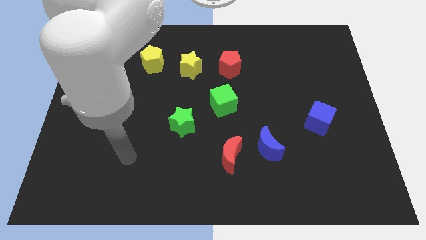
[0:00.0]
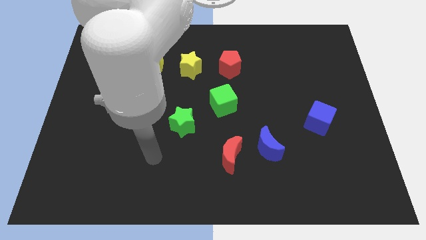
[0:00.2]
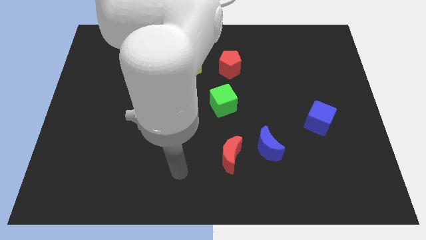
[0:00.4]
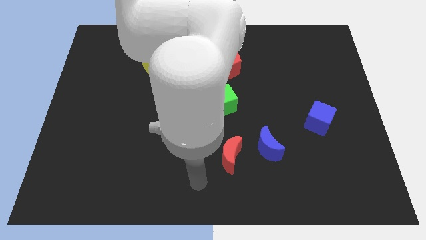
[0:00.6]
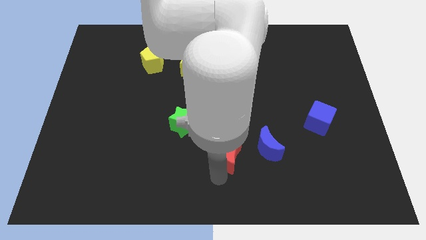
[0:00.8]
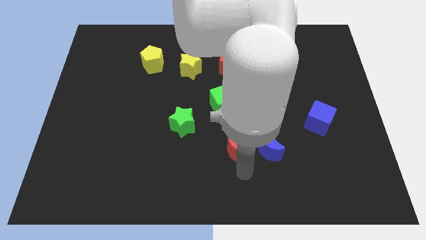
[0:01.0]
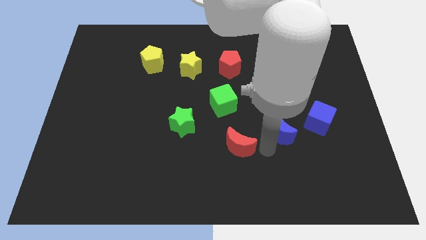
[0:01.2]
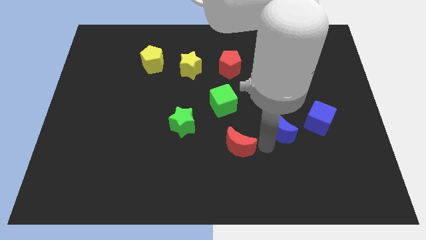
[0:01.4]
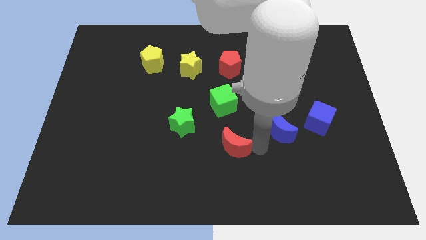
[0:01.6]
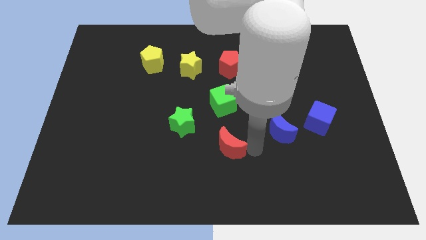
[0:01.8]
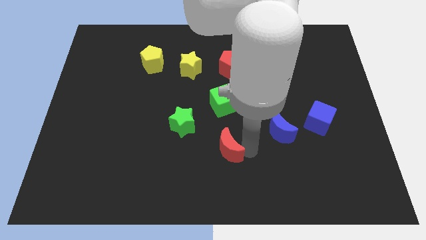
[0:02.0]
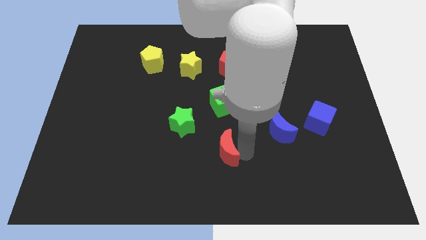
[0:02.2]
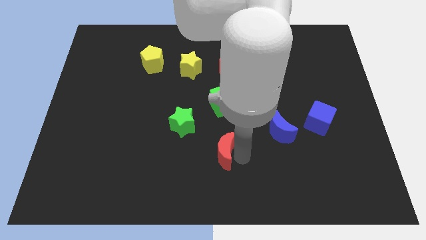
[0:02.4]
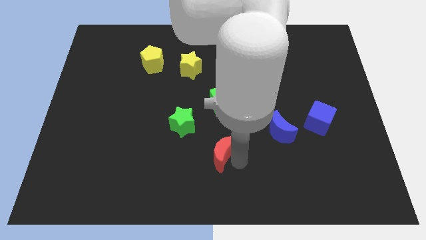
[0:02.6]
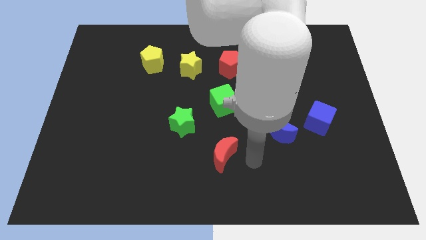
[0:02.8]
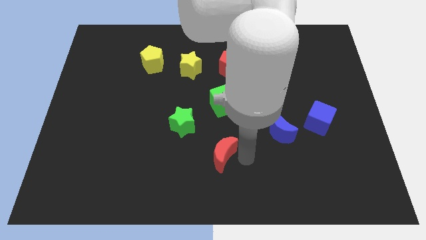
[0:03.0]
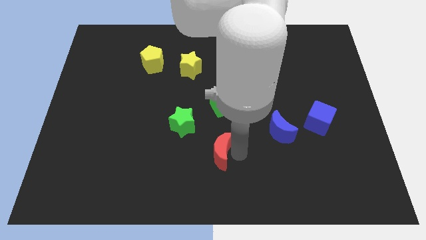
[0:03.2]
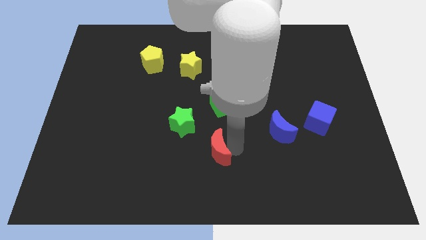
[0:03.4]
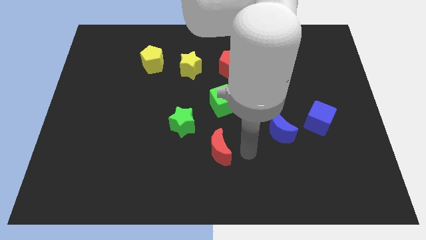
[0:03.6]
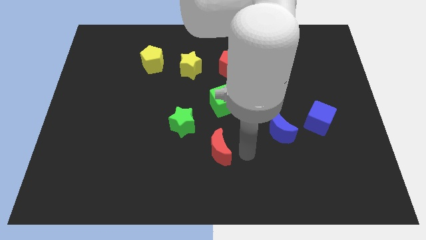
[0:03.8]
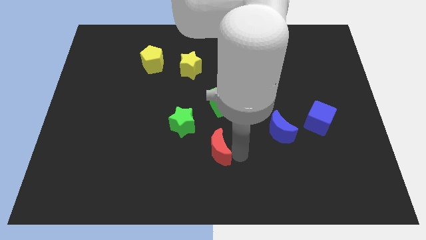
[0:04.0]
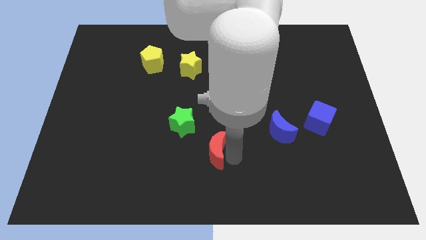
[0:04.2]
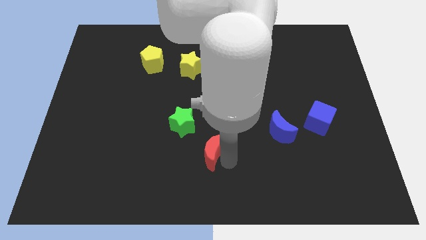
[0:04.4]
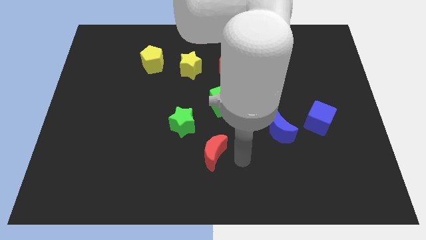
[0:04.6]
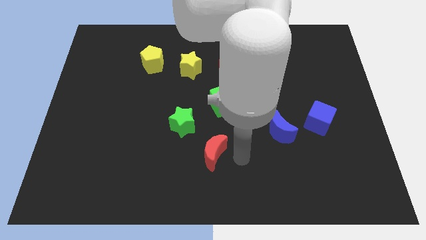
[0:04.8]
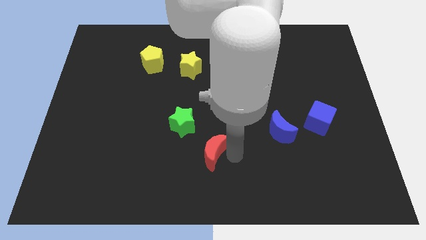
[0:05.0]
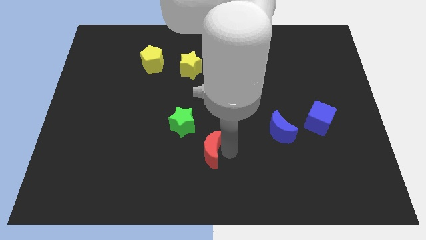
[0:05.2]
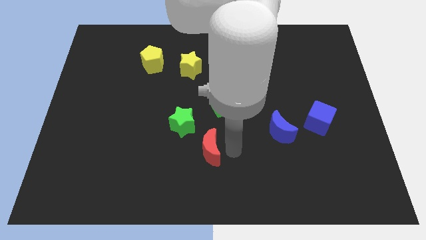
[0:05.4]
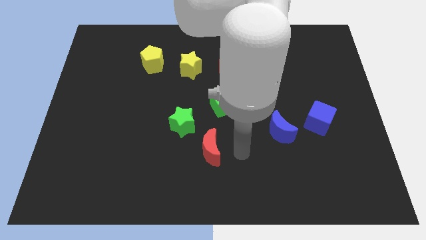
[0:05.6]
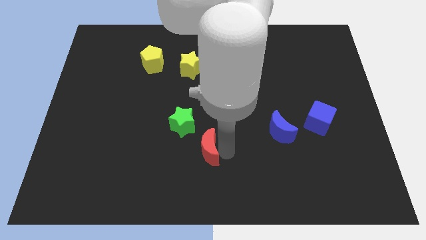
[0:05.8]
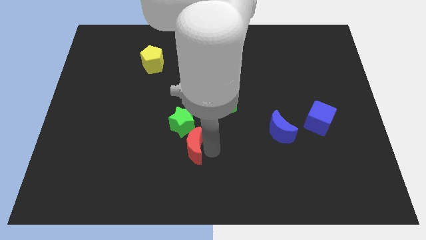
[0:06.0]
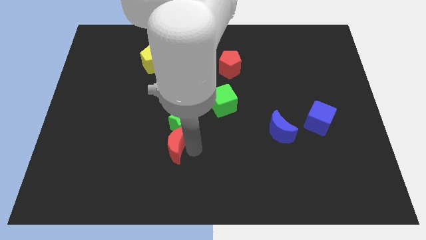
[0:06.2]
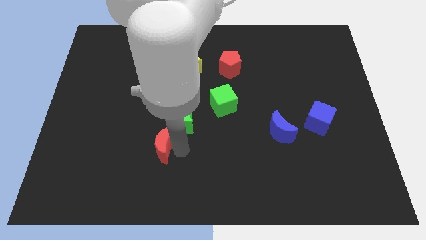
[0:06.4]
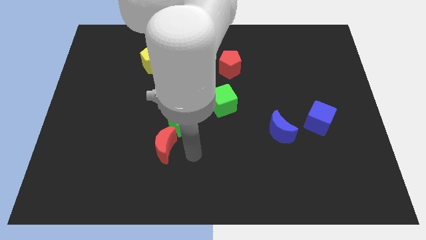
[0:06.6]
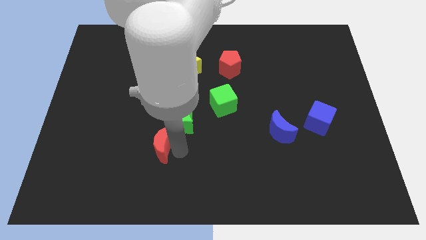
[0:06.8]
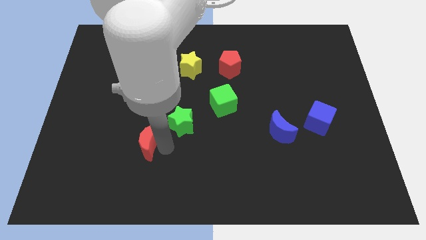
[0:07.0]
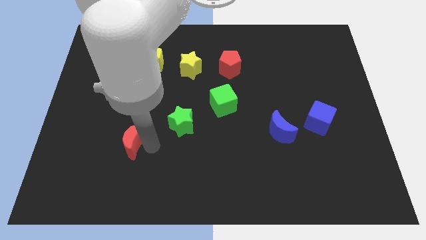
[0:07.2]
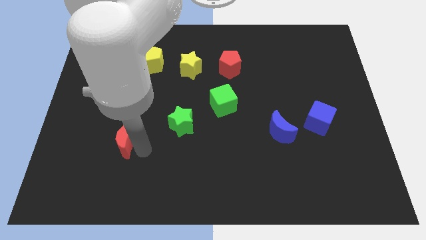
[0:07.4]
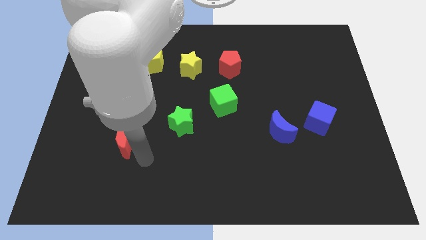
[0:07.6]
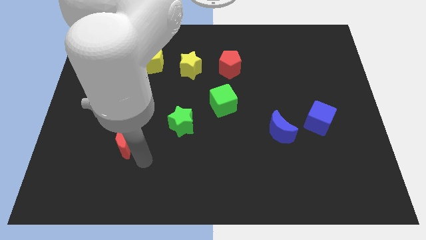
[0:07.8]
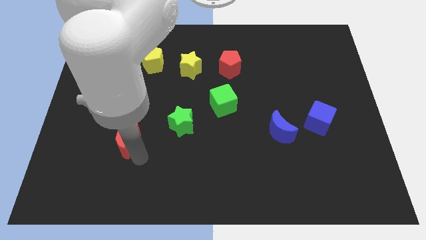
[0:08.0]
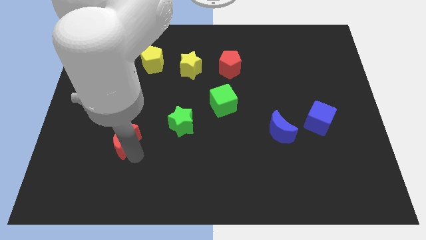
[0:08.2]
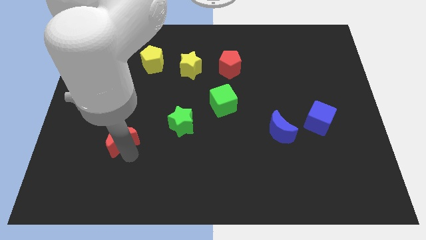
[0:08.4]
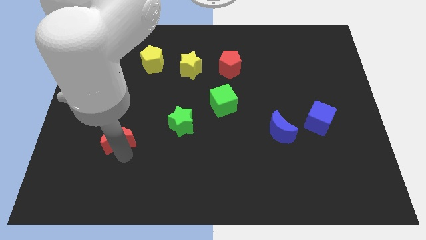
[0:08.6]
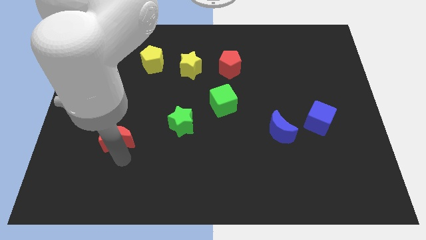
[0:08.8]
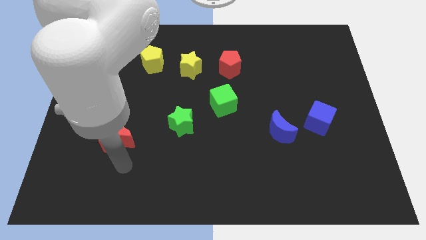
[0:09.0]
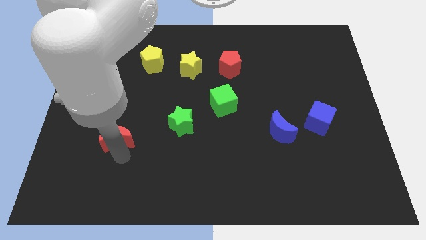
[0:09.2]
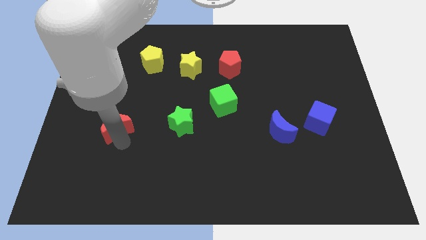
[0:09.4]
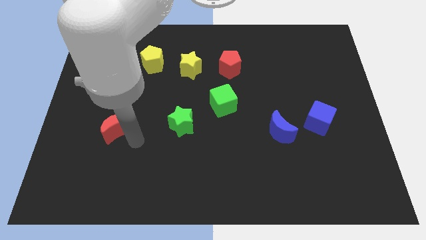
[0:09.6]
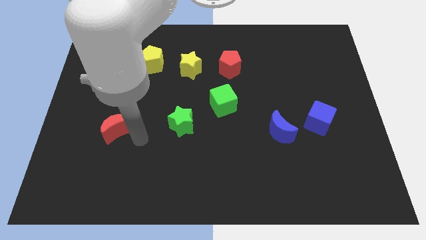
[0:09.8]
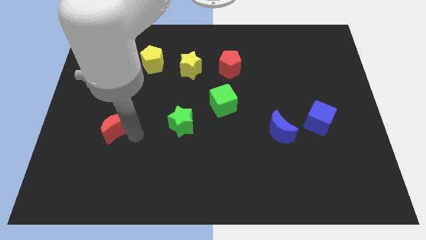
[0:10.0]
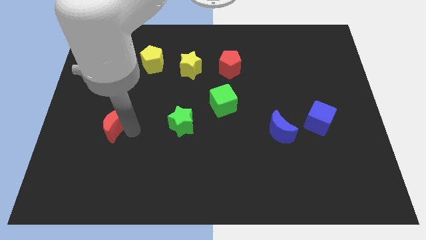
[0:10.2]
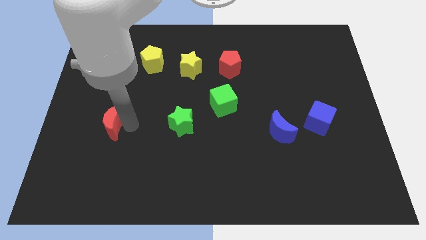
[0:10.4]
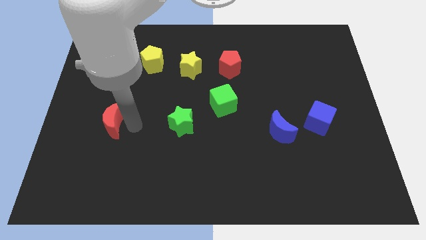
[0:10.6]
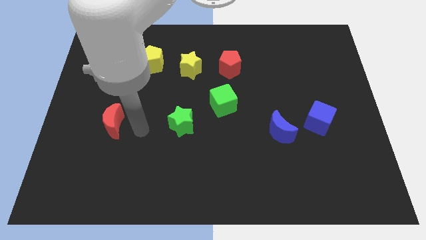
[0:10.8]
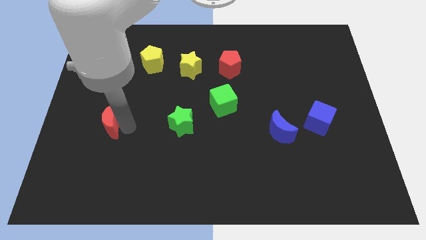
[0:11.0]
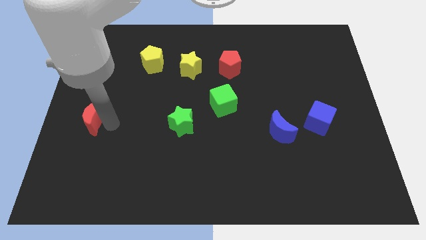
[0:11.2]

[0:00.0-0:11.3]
put the red moon to the left side of the board

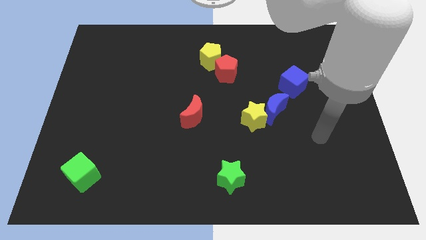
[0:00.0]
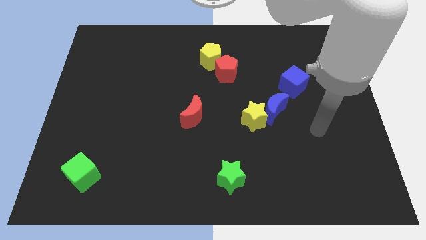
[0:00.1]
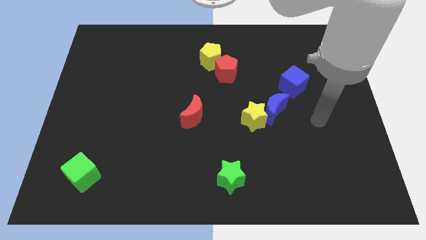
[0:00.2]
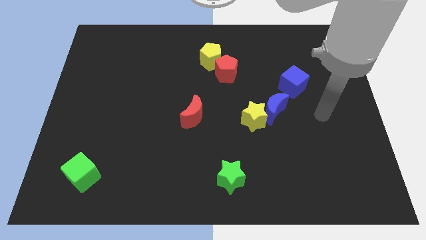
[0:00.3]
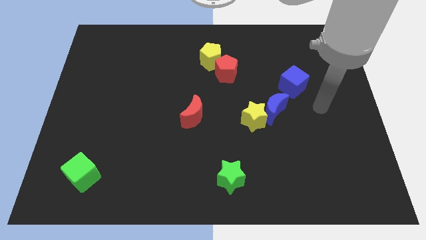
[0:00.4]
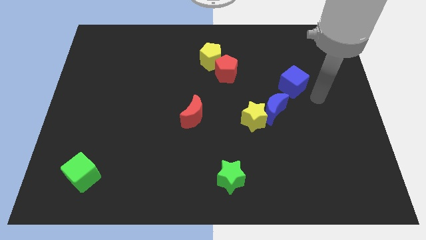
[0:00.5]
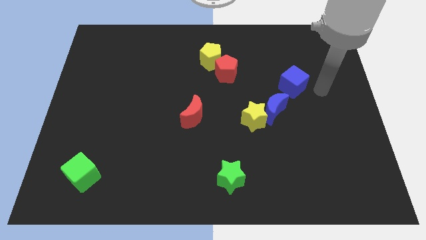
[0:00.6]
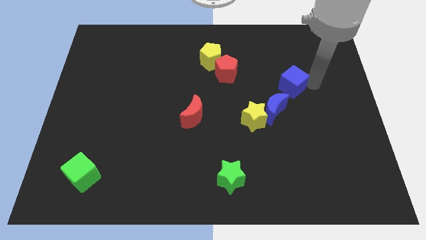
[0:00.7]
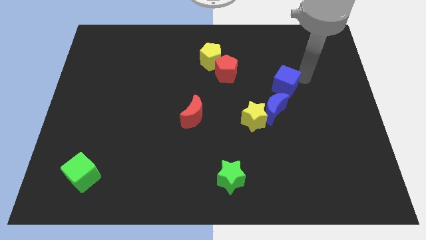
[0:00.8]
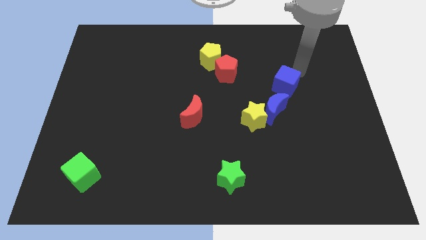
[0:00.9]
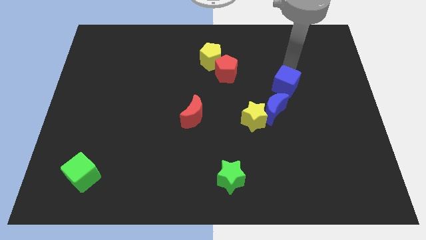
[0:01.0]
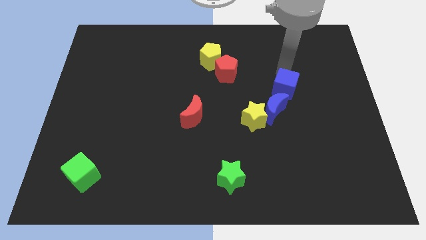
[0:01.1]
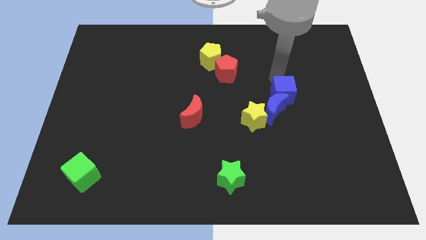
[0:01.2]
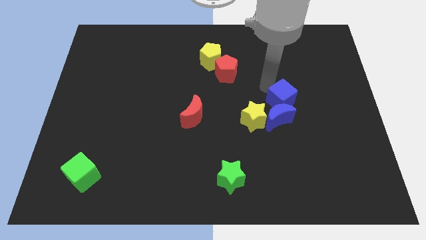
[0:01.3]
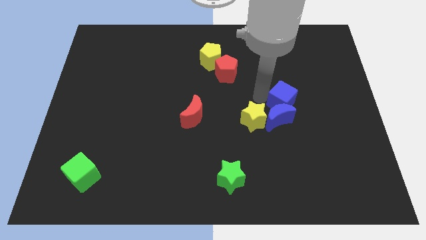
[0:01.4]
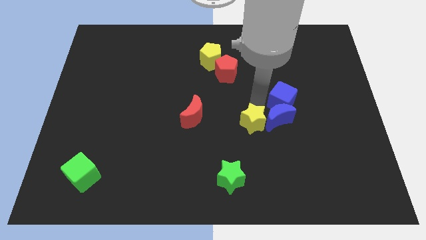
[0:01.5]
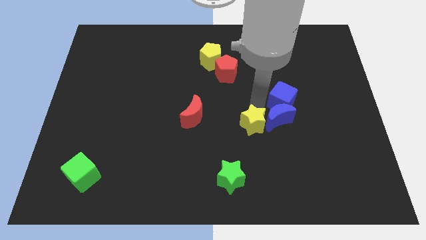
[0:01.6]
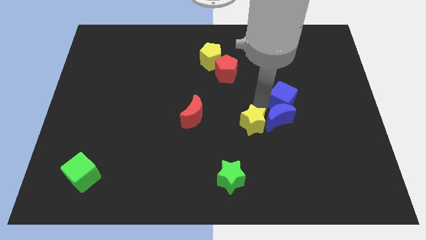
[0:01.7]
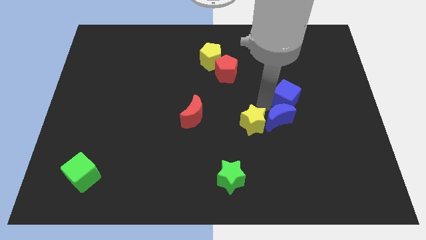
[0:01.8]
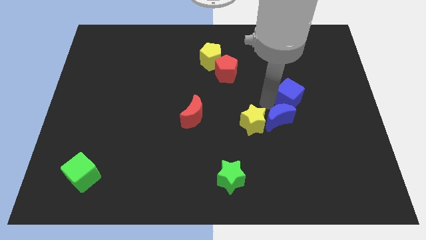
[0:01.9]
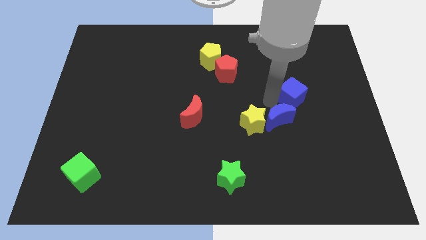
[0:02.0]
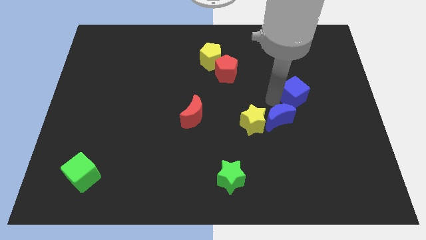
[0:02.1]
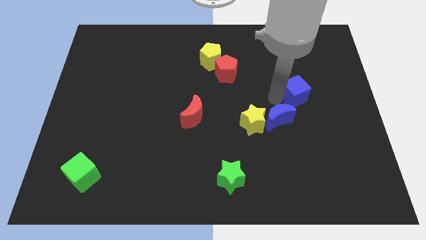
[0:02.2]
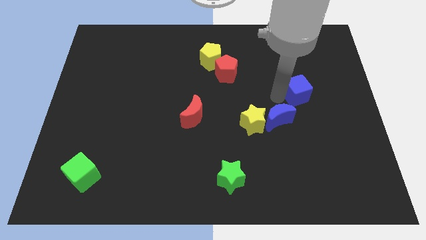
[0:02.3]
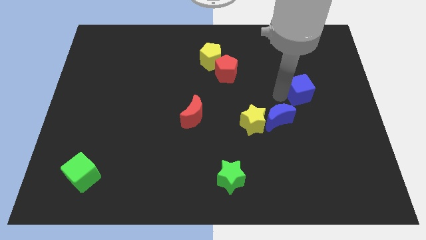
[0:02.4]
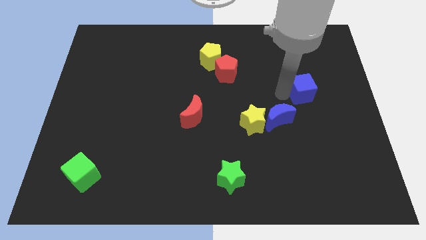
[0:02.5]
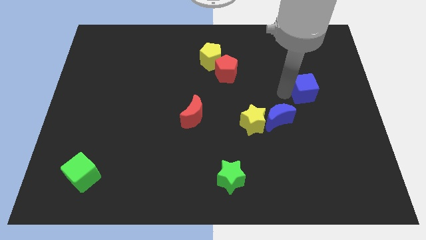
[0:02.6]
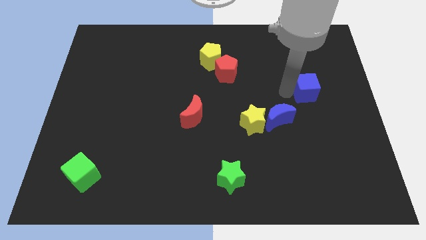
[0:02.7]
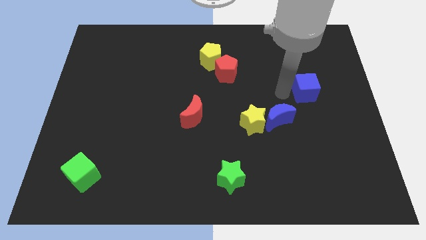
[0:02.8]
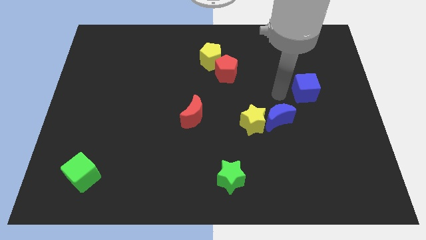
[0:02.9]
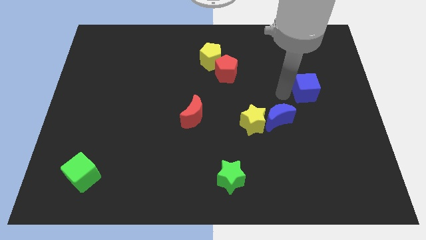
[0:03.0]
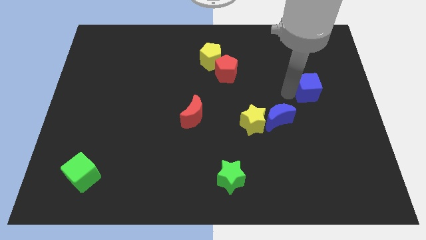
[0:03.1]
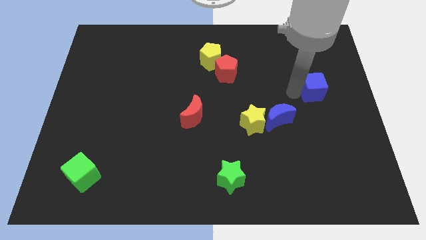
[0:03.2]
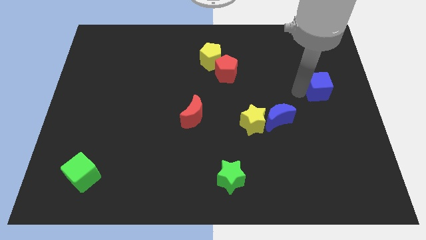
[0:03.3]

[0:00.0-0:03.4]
slide the blue cube to the right side of the board
